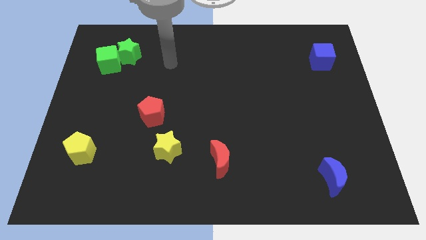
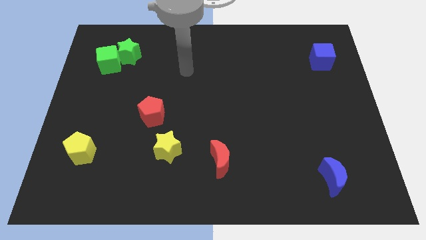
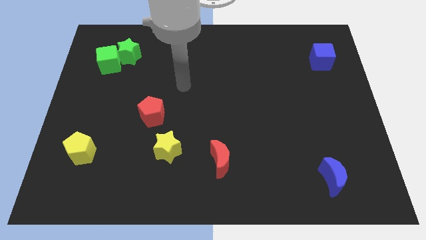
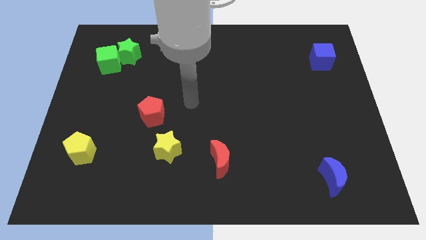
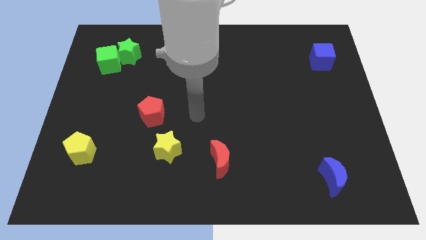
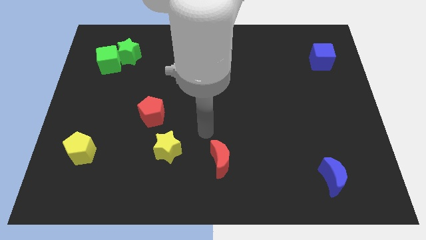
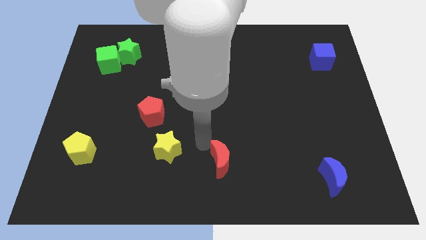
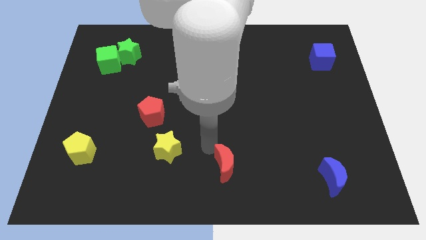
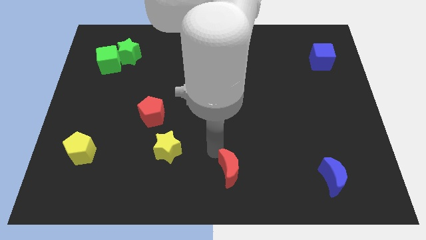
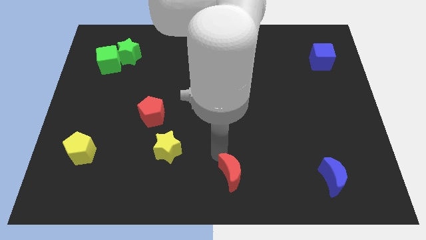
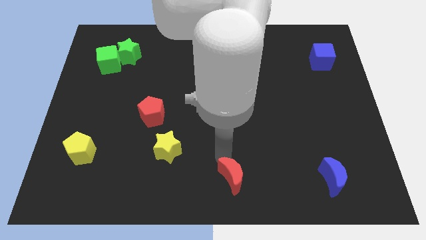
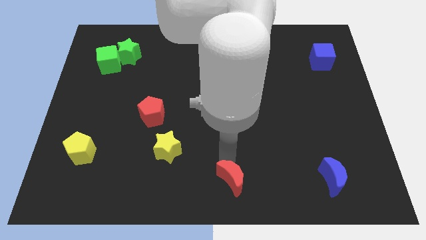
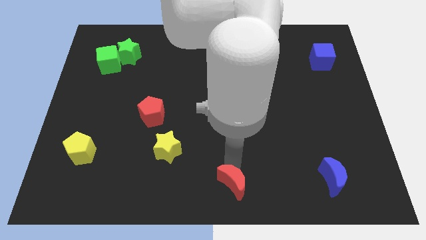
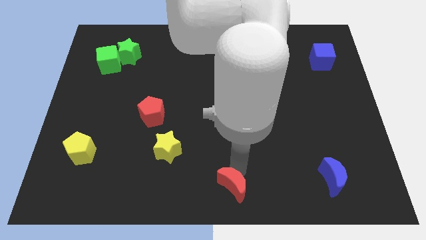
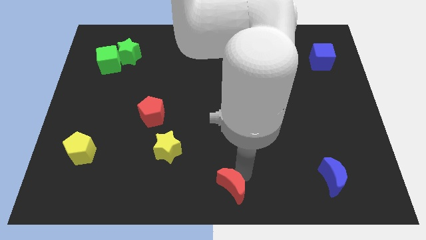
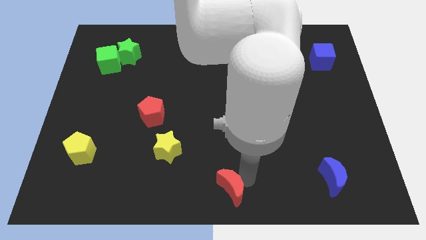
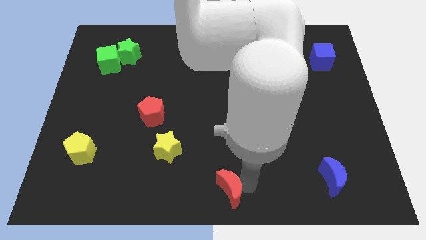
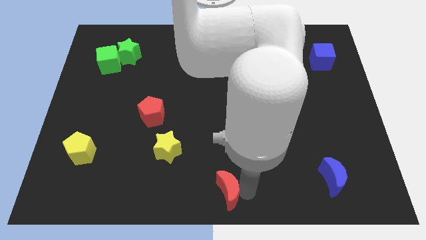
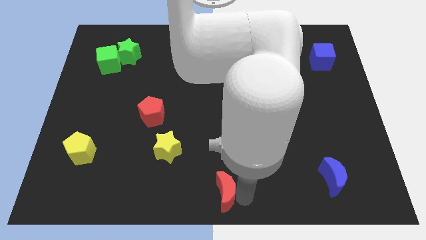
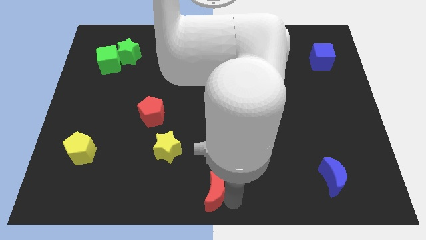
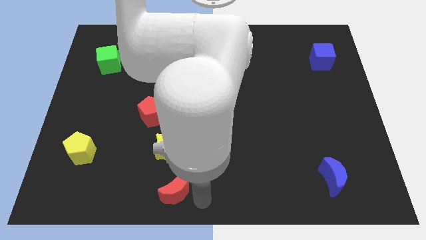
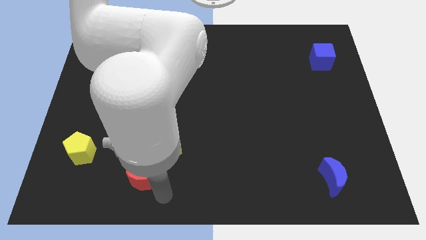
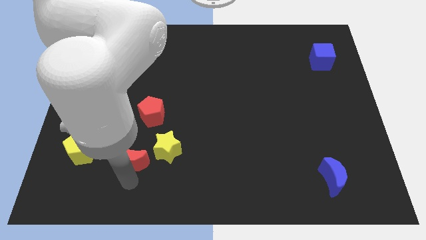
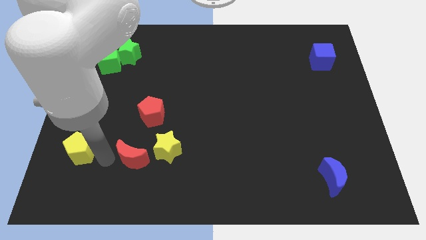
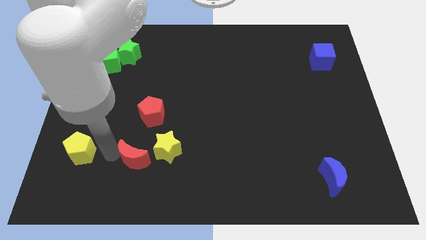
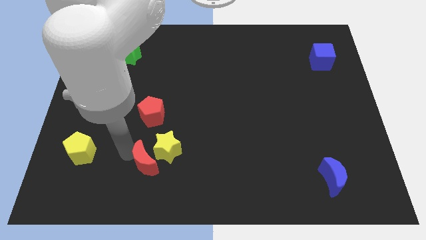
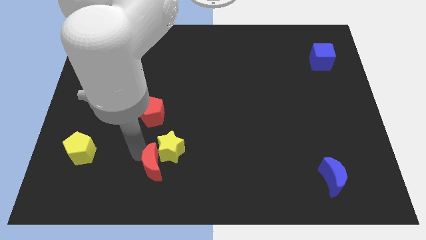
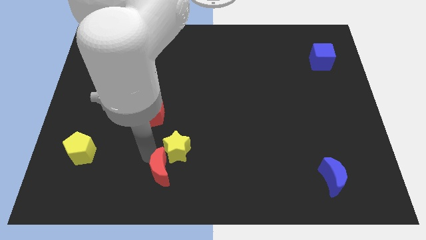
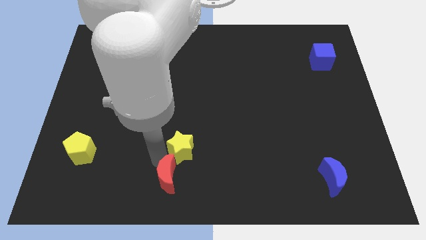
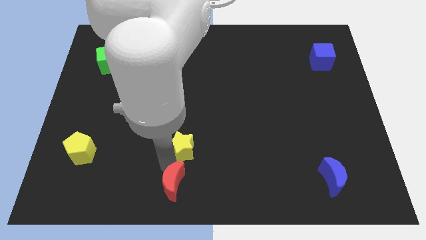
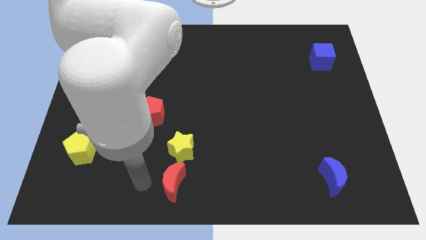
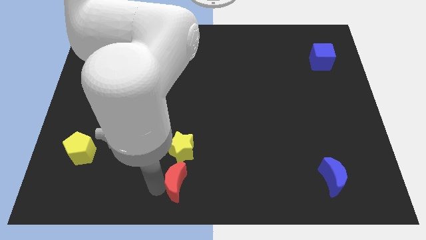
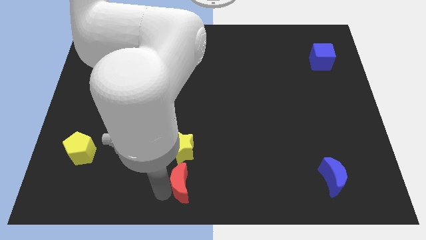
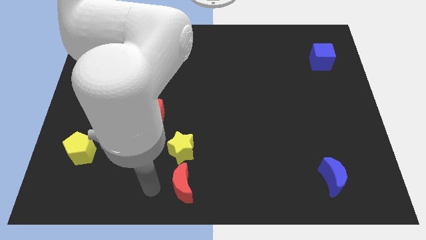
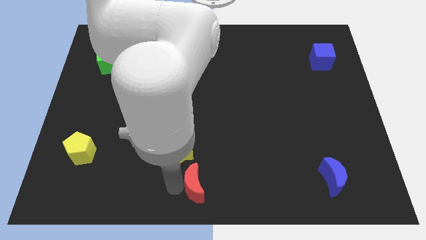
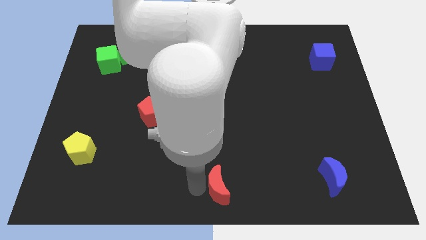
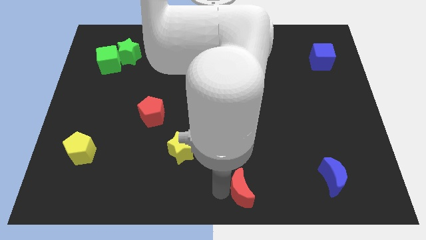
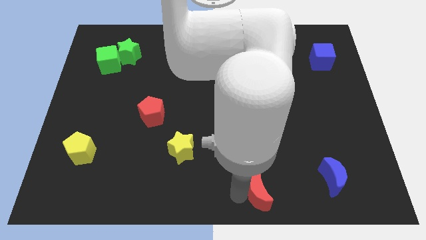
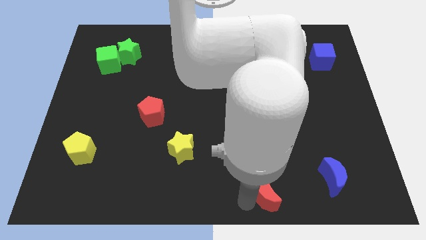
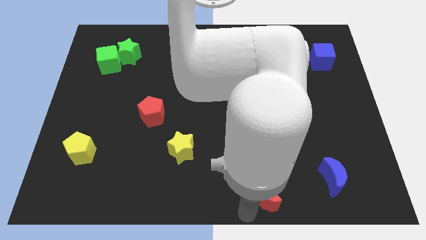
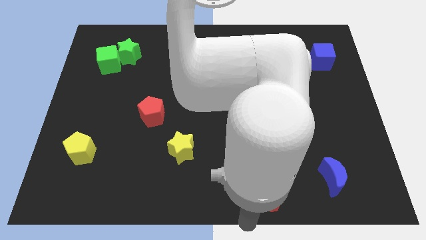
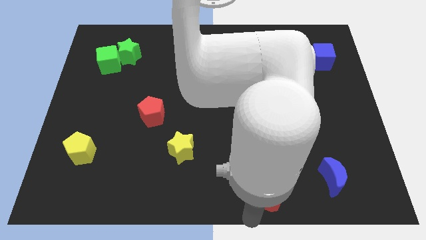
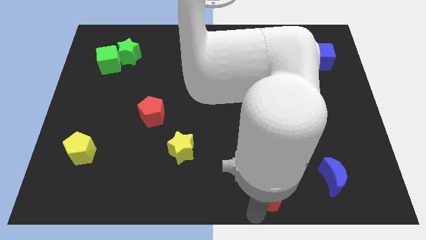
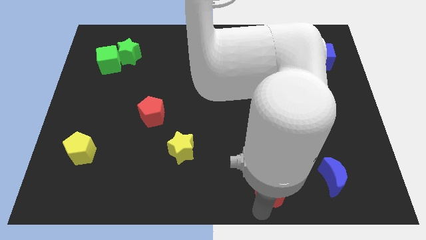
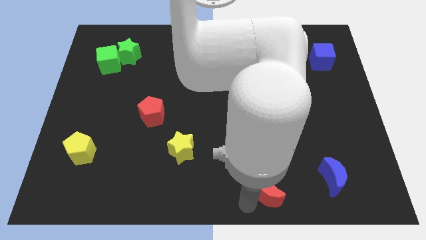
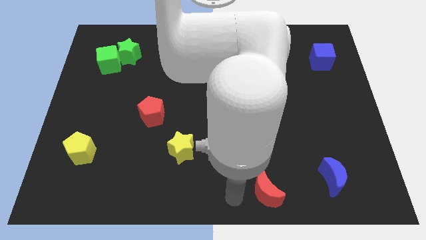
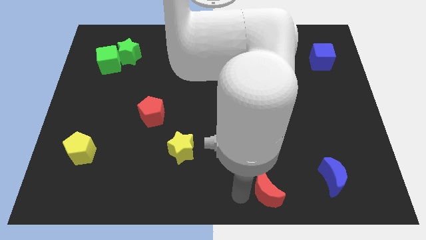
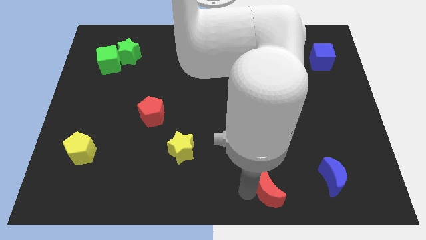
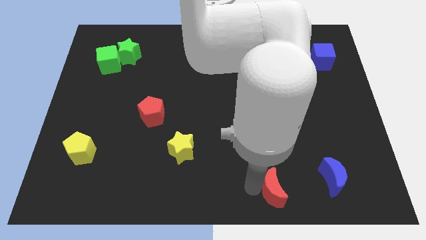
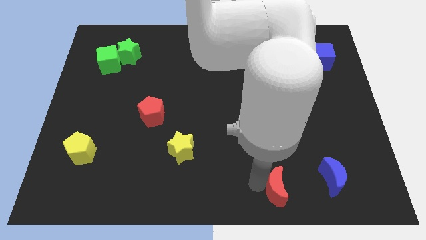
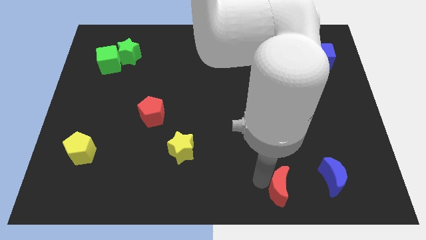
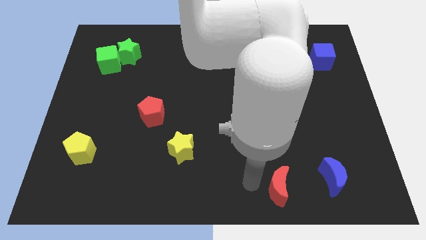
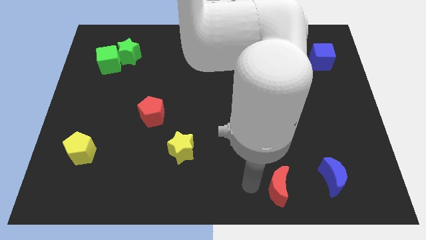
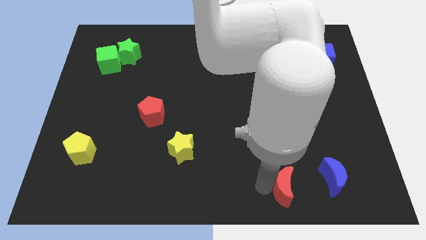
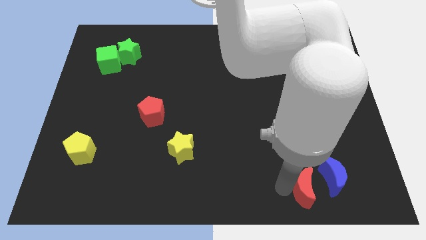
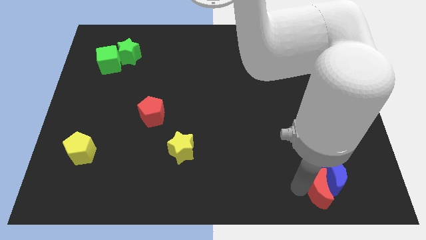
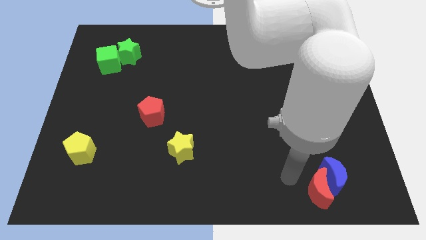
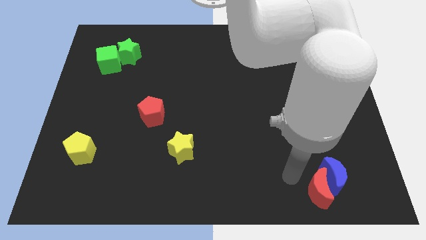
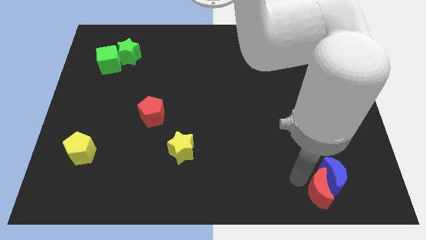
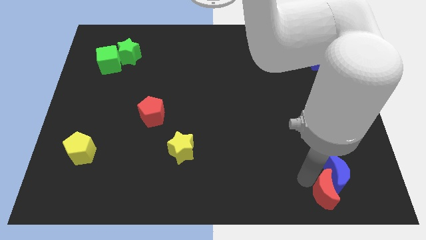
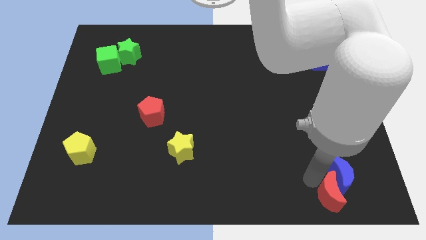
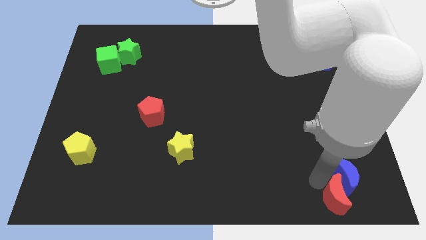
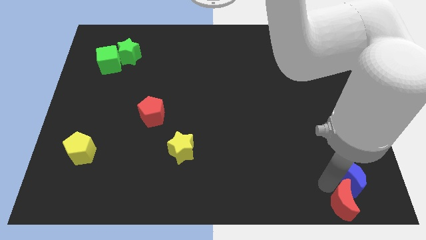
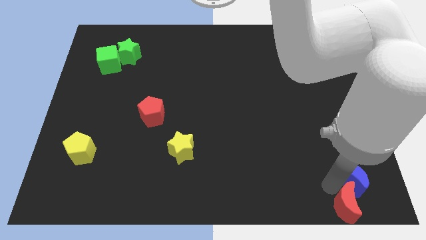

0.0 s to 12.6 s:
push the red moon to the bottom right corner

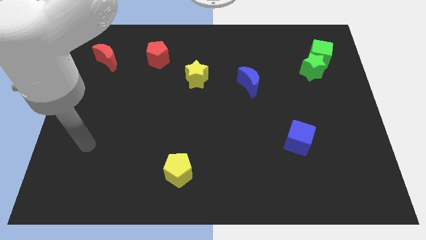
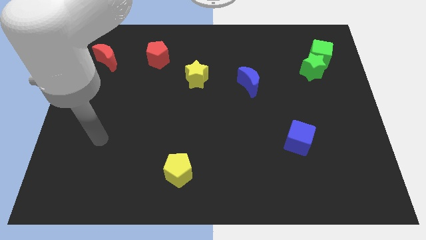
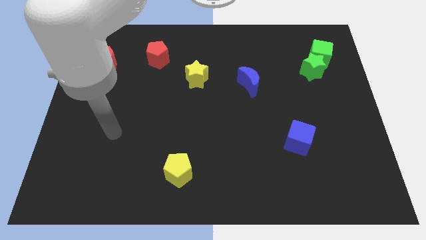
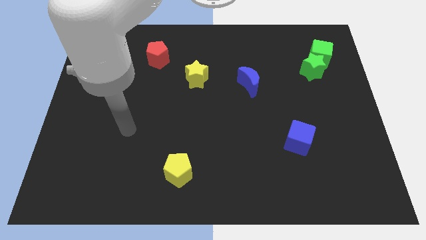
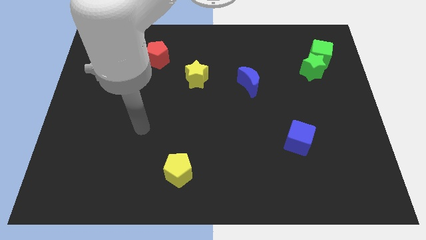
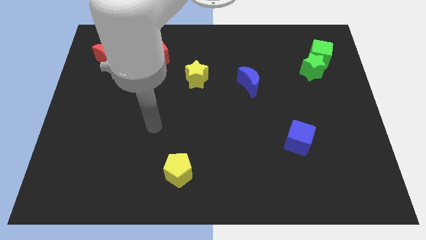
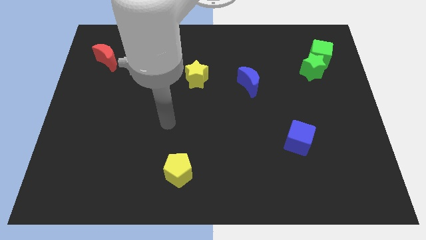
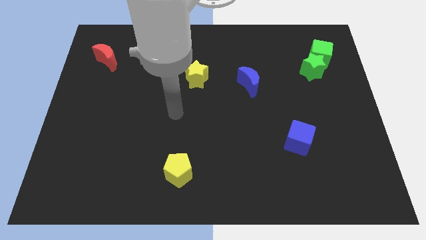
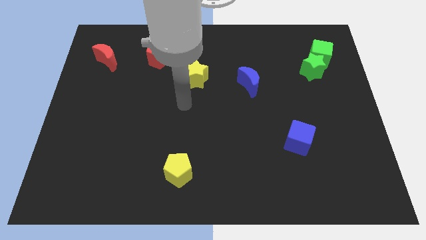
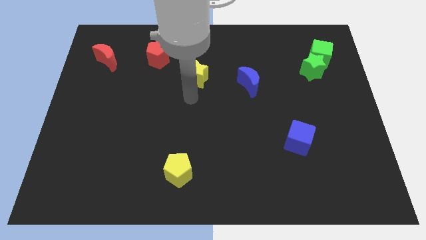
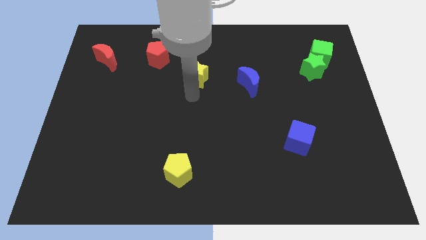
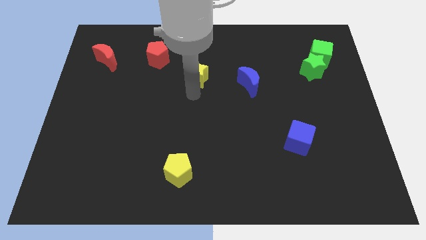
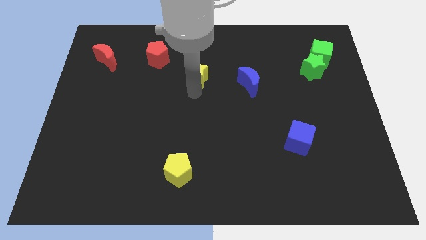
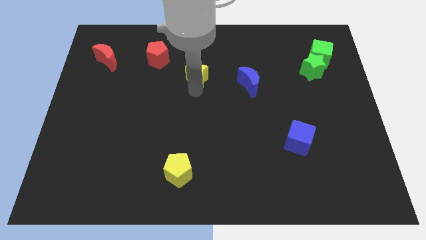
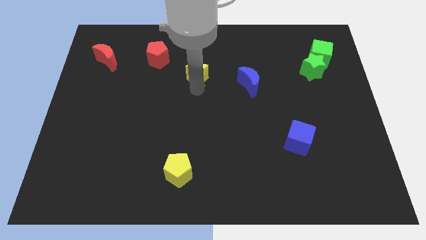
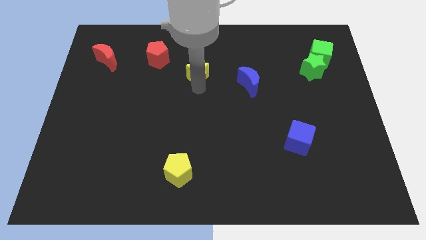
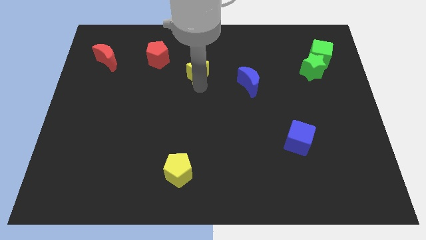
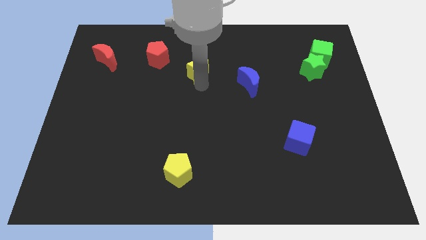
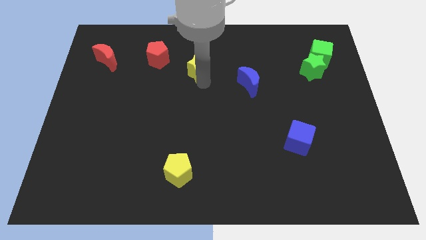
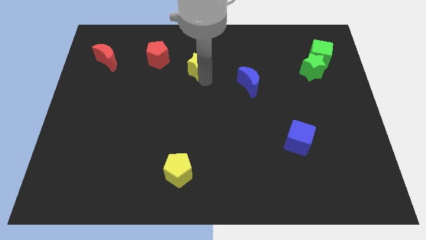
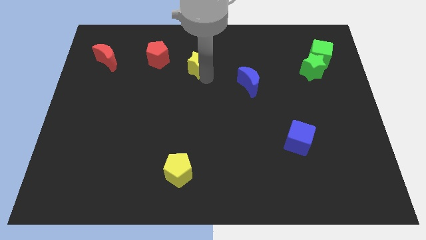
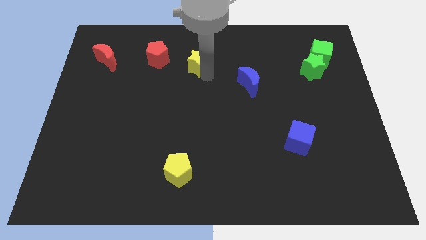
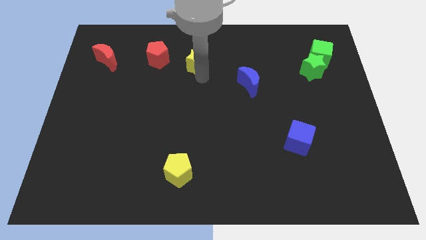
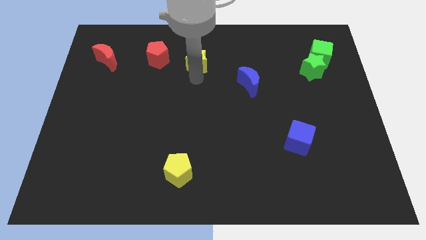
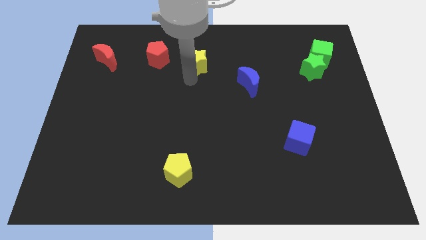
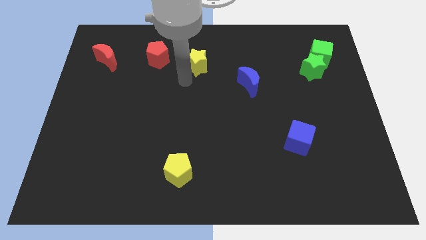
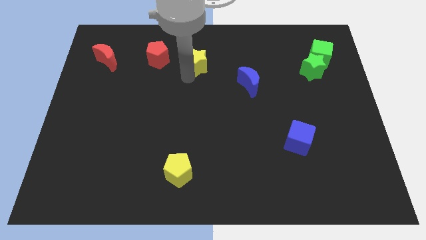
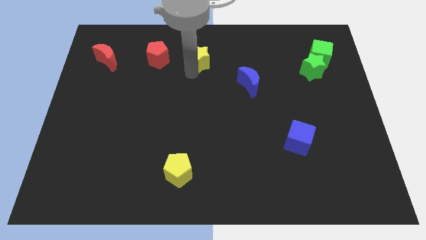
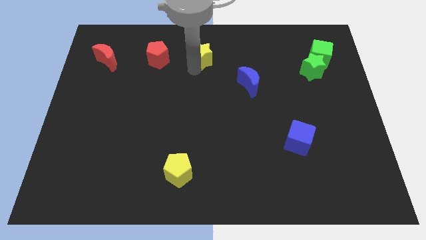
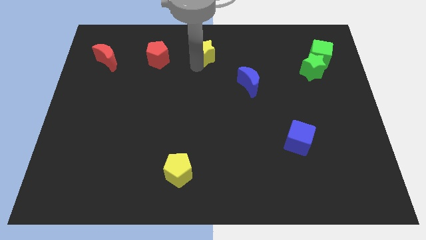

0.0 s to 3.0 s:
move the yellow star to the top side
